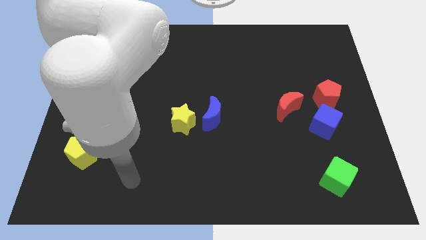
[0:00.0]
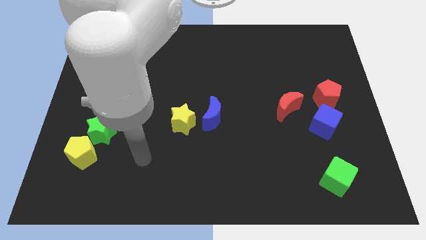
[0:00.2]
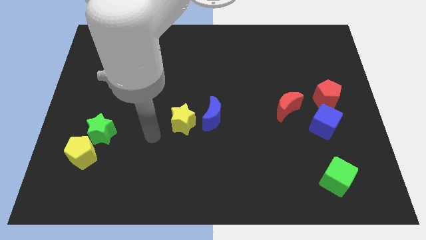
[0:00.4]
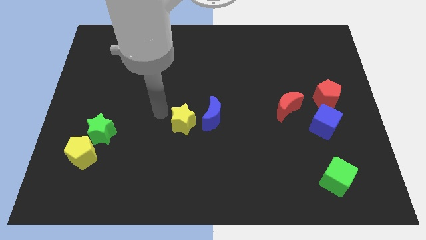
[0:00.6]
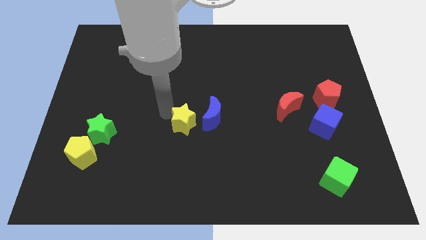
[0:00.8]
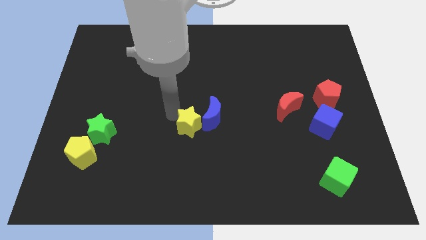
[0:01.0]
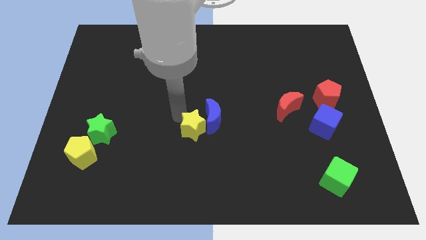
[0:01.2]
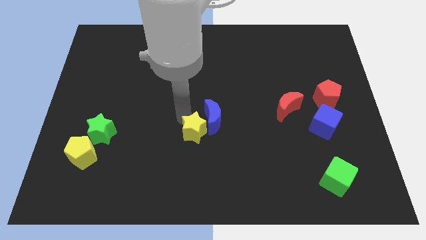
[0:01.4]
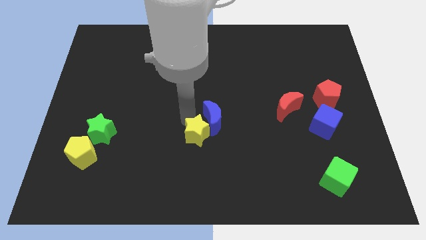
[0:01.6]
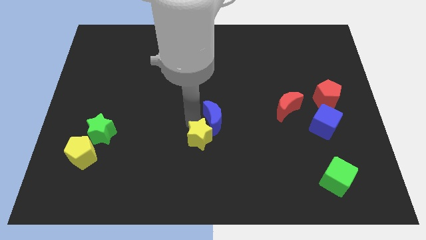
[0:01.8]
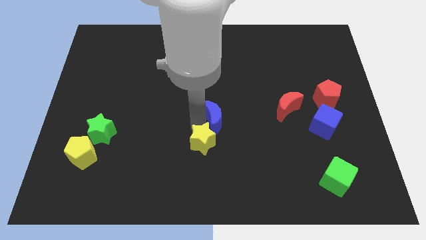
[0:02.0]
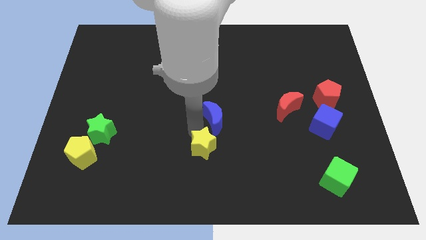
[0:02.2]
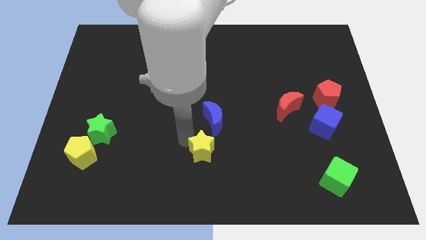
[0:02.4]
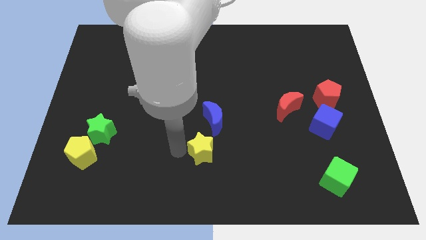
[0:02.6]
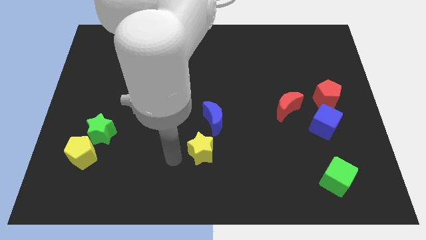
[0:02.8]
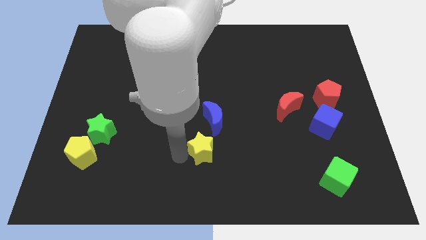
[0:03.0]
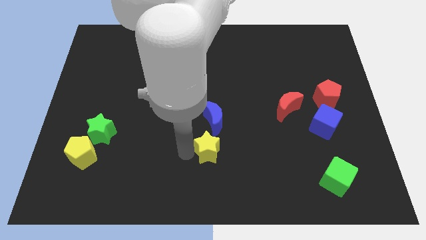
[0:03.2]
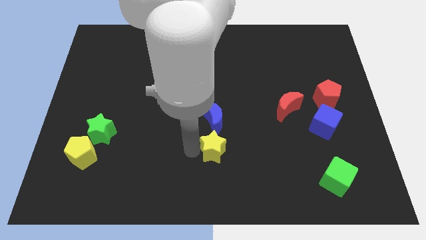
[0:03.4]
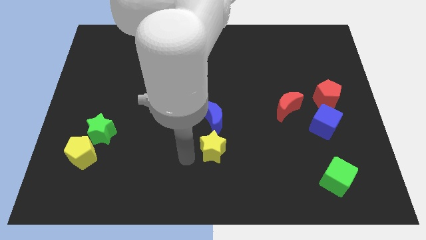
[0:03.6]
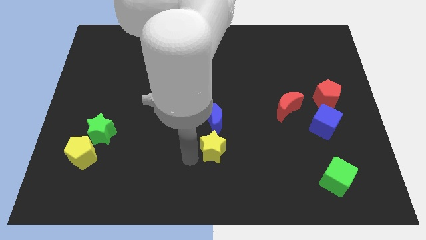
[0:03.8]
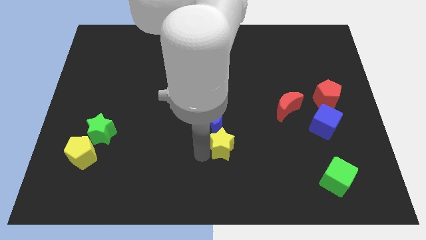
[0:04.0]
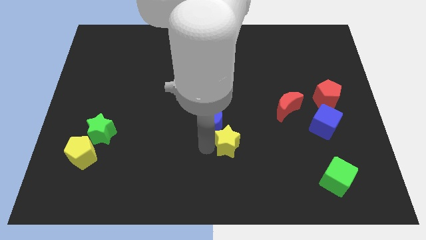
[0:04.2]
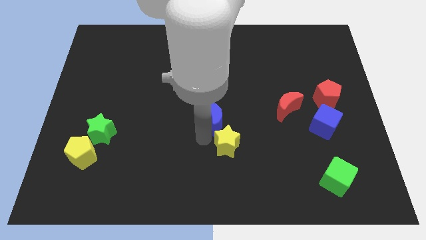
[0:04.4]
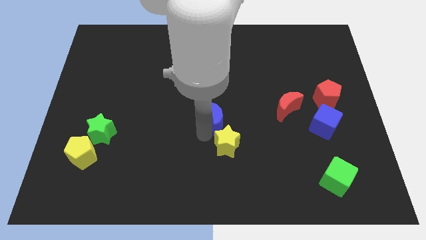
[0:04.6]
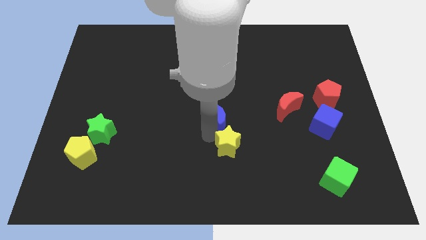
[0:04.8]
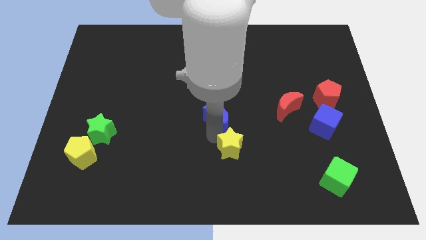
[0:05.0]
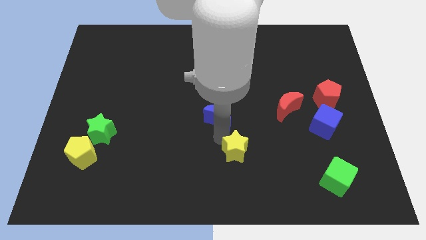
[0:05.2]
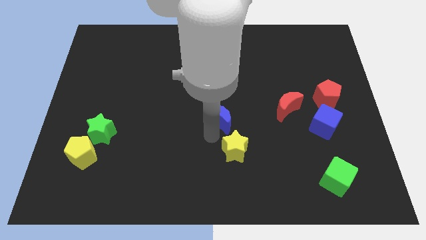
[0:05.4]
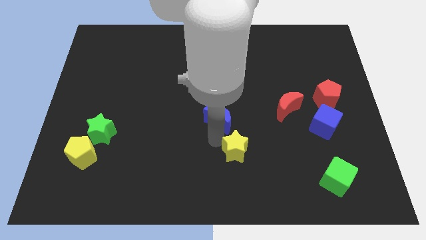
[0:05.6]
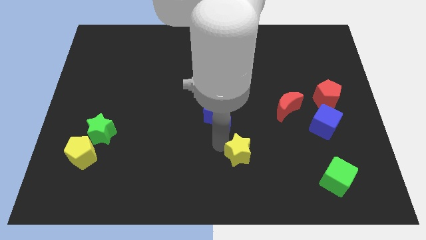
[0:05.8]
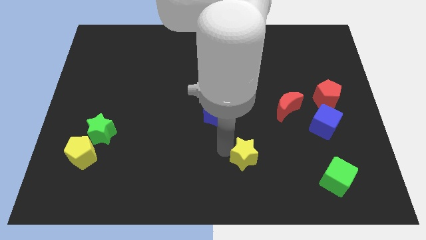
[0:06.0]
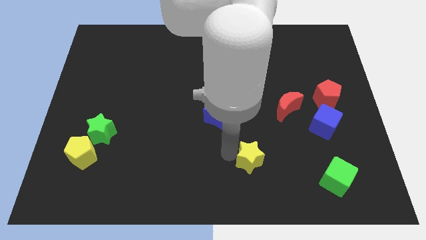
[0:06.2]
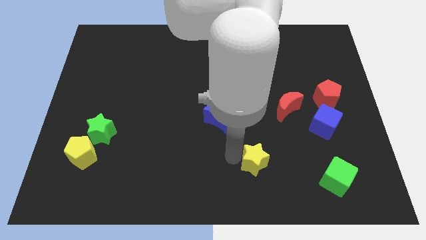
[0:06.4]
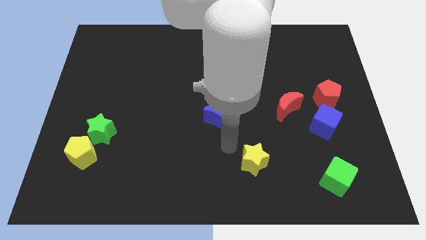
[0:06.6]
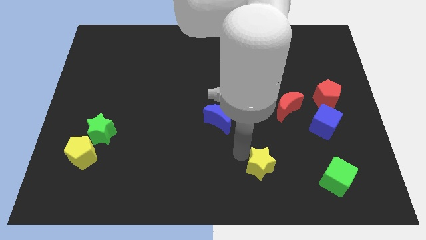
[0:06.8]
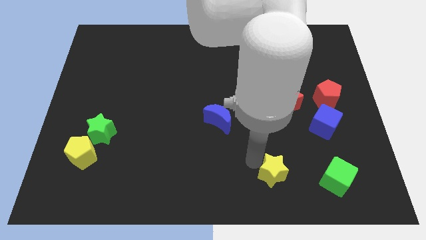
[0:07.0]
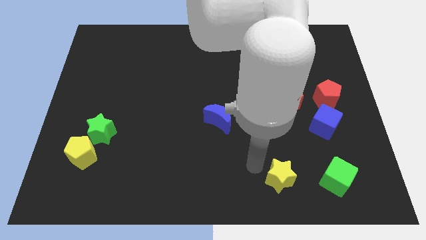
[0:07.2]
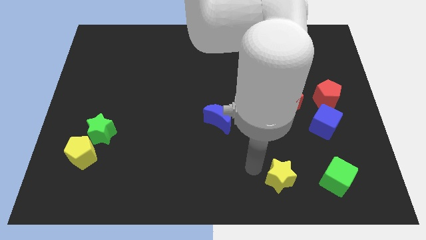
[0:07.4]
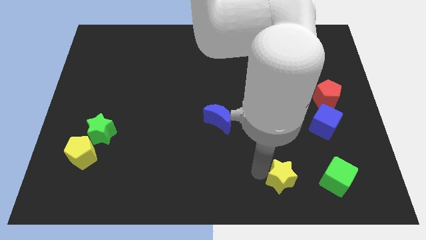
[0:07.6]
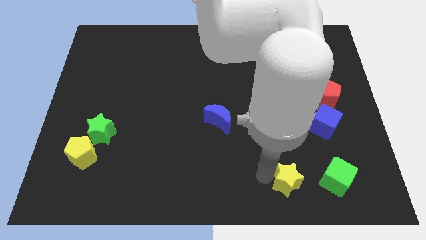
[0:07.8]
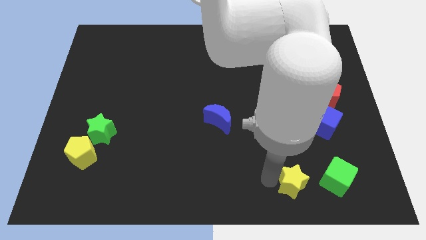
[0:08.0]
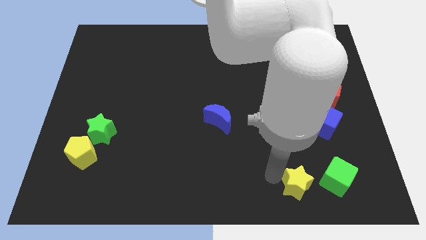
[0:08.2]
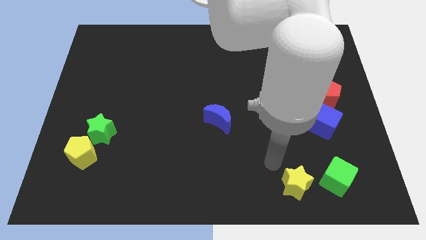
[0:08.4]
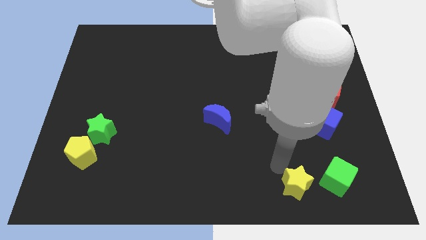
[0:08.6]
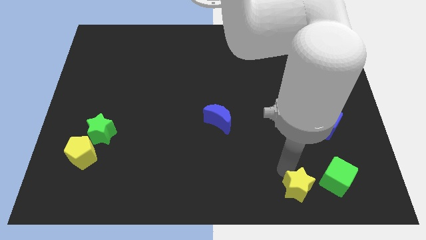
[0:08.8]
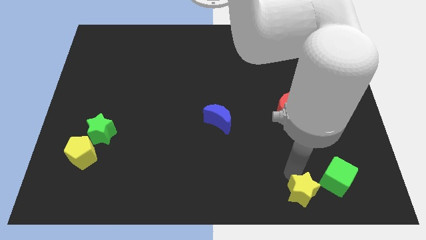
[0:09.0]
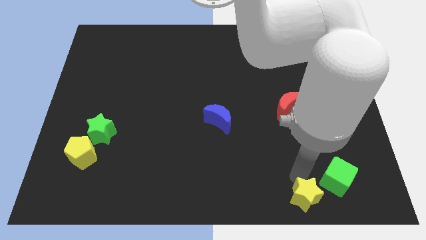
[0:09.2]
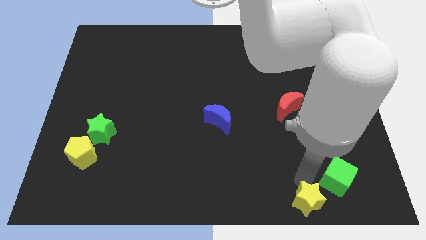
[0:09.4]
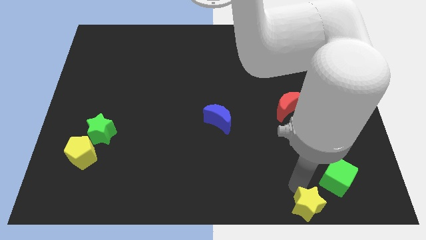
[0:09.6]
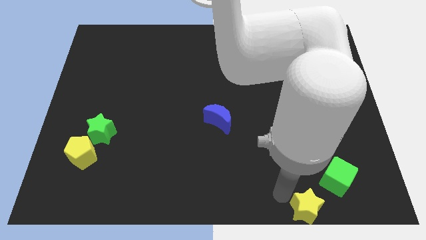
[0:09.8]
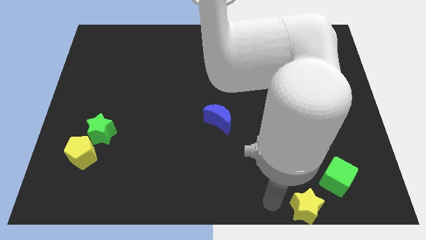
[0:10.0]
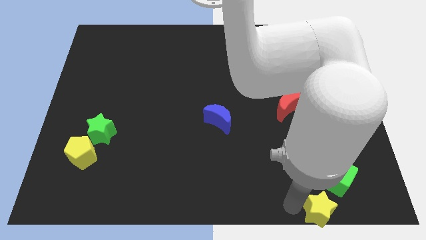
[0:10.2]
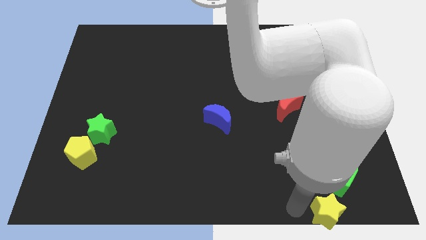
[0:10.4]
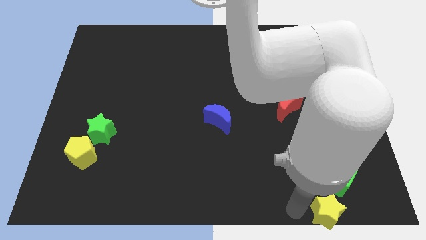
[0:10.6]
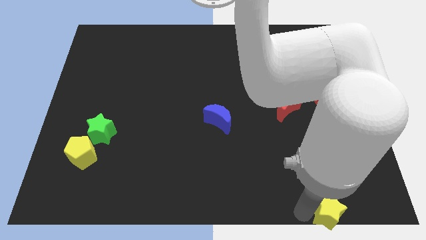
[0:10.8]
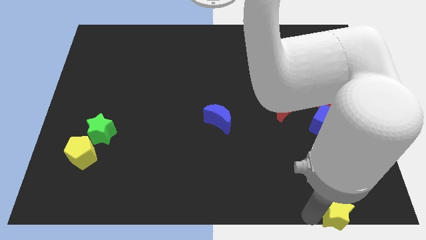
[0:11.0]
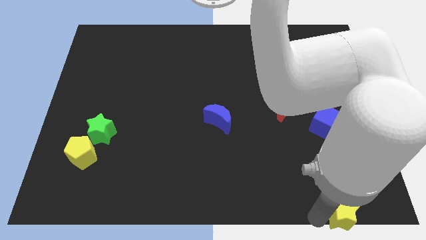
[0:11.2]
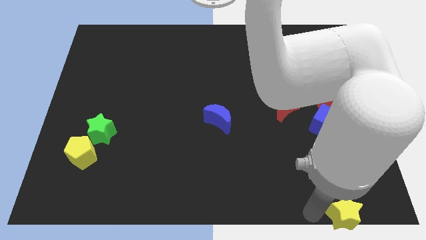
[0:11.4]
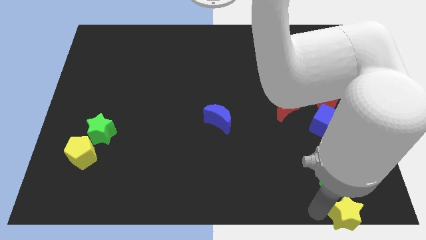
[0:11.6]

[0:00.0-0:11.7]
put the yellow star to the lower right corner
